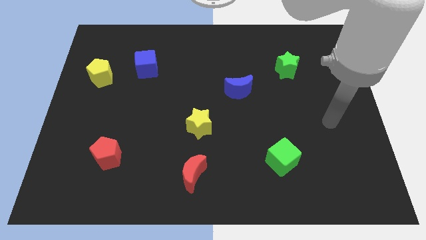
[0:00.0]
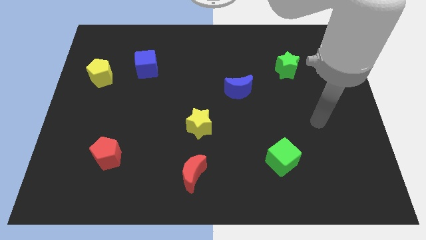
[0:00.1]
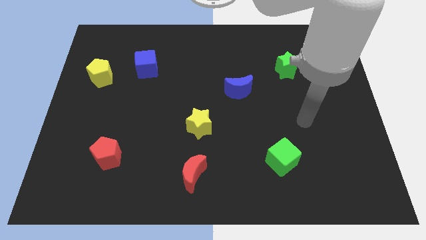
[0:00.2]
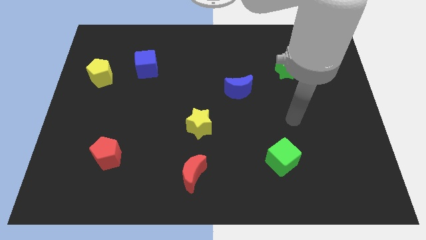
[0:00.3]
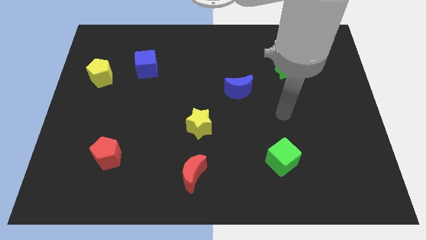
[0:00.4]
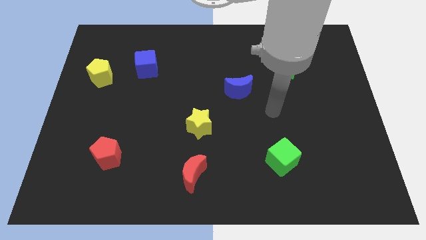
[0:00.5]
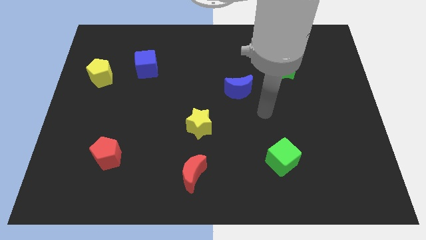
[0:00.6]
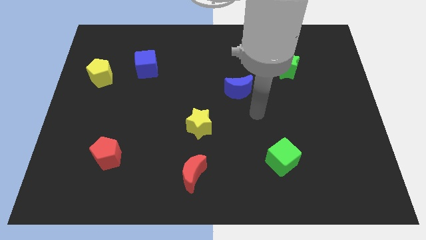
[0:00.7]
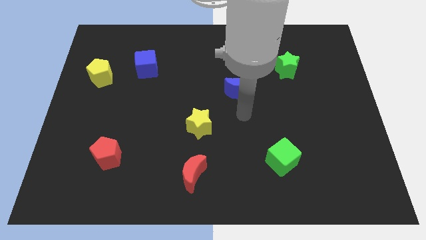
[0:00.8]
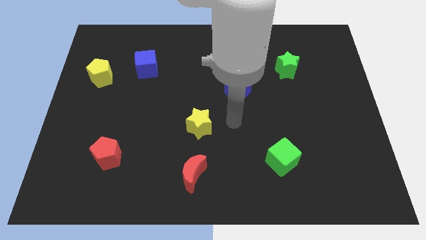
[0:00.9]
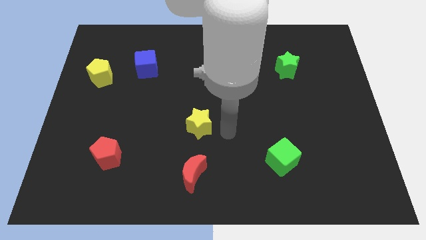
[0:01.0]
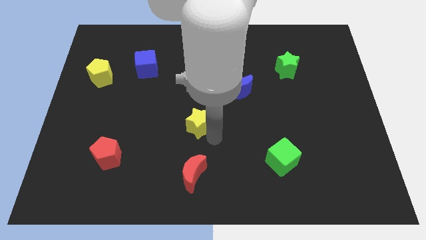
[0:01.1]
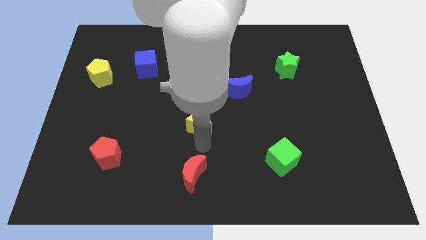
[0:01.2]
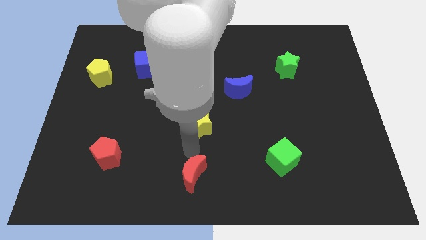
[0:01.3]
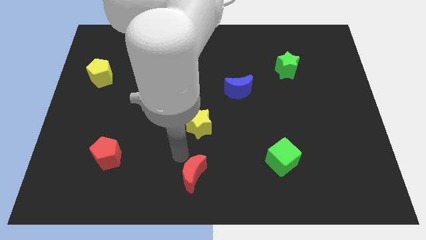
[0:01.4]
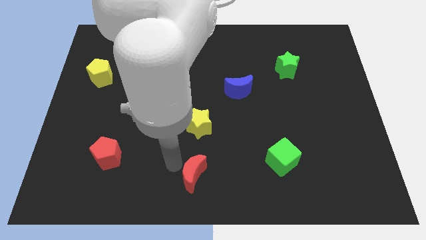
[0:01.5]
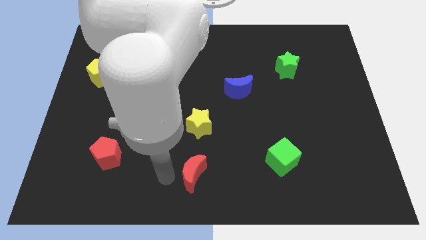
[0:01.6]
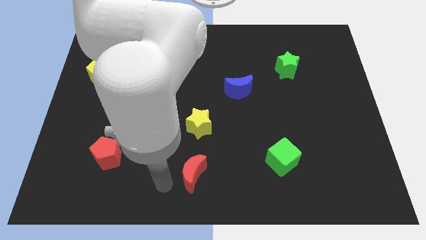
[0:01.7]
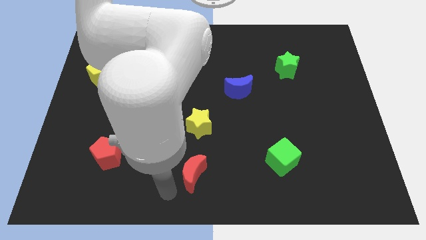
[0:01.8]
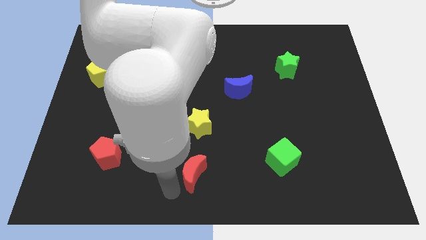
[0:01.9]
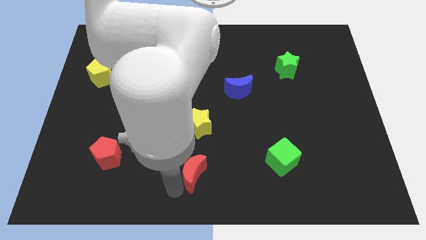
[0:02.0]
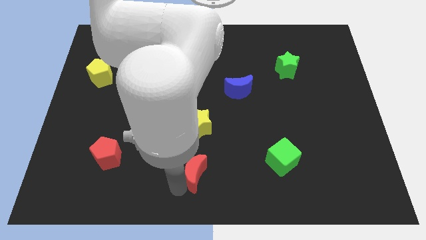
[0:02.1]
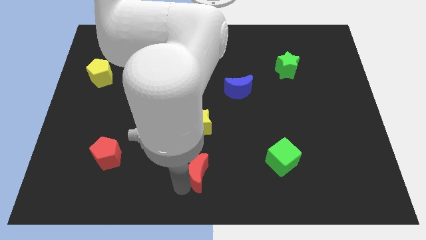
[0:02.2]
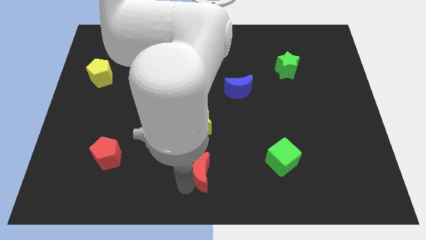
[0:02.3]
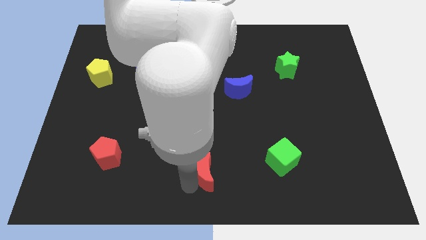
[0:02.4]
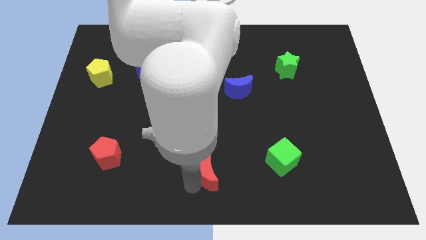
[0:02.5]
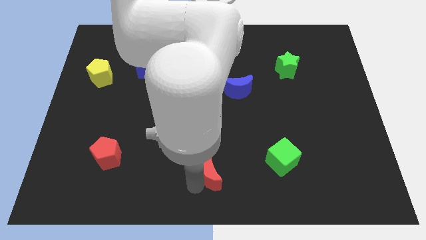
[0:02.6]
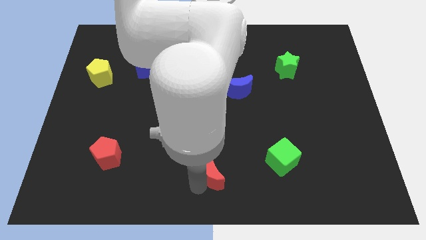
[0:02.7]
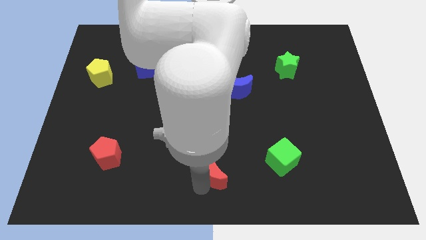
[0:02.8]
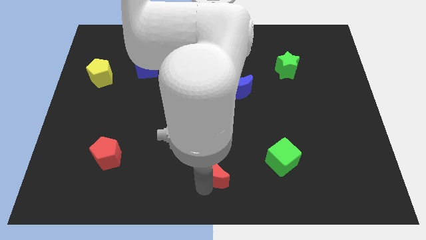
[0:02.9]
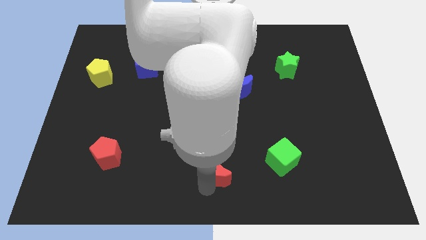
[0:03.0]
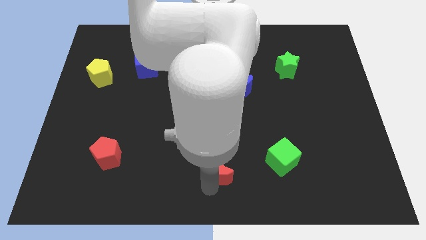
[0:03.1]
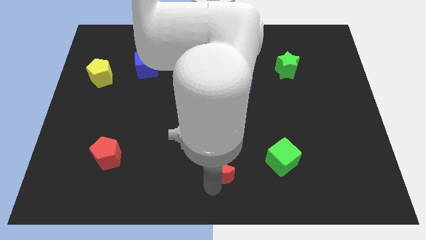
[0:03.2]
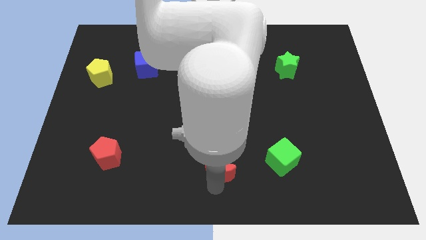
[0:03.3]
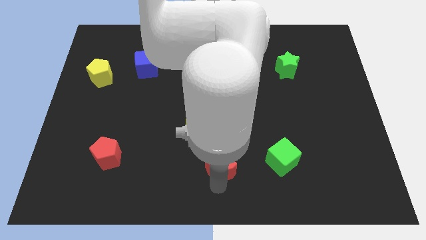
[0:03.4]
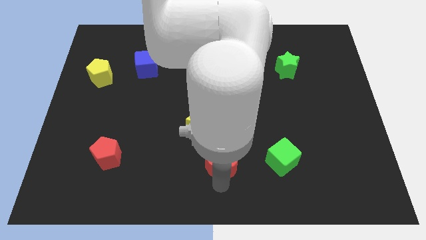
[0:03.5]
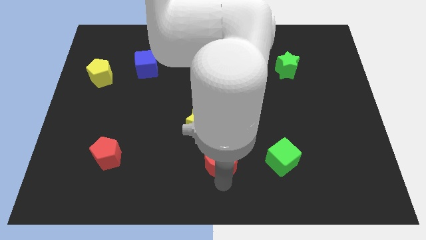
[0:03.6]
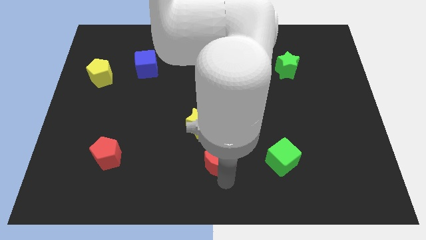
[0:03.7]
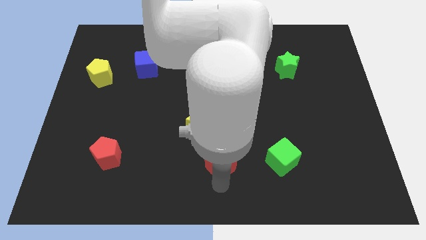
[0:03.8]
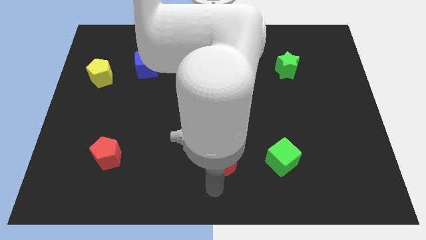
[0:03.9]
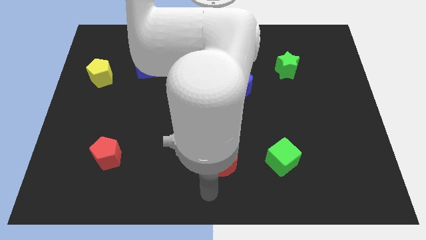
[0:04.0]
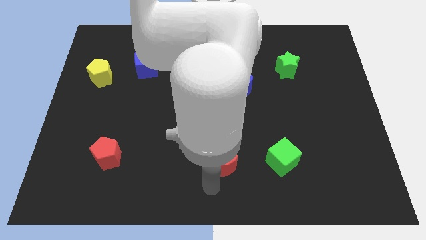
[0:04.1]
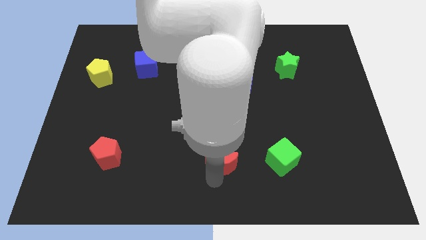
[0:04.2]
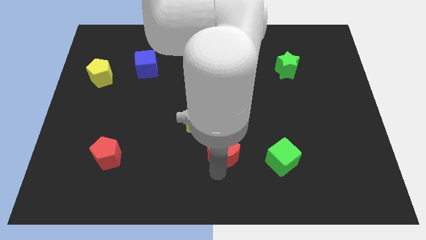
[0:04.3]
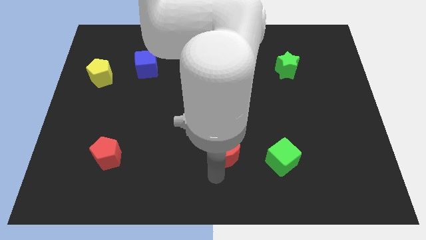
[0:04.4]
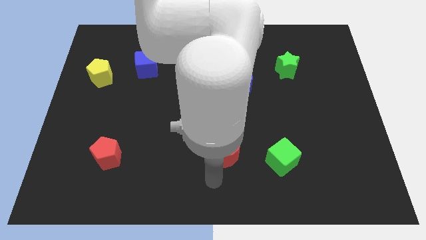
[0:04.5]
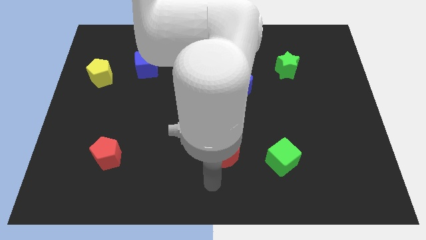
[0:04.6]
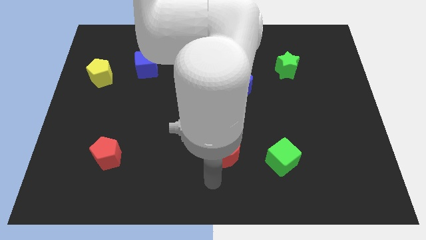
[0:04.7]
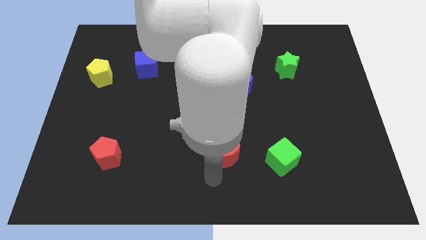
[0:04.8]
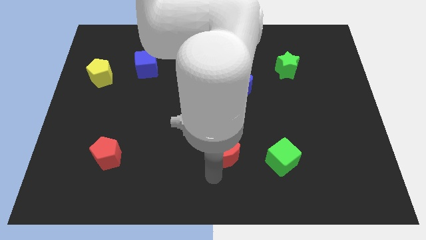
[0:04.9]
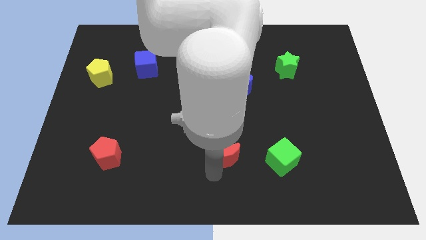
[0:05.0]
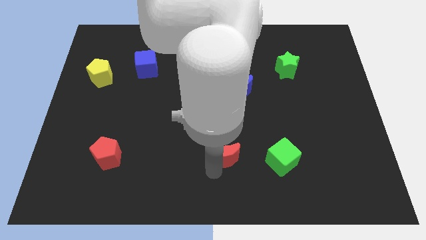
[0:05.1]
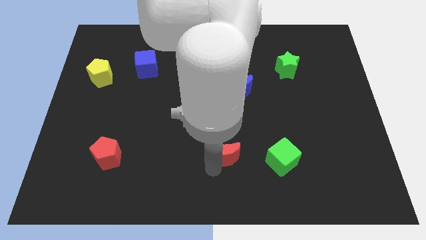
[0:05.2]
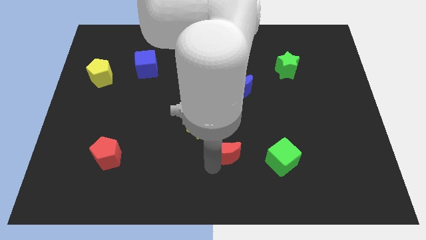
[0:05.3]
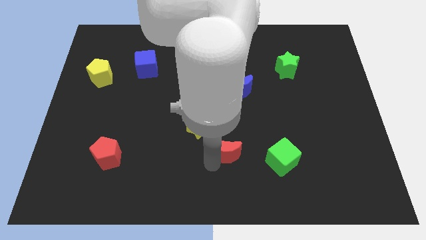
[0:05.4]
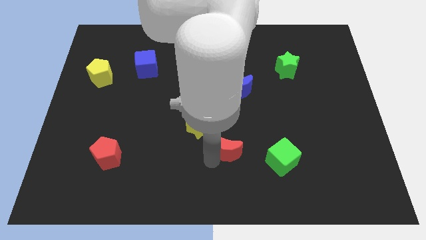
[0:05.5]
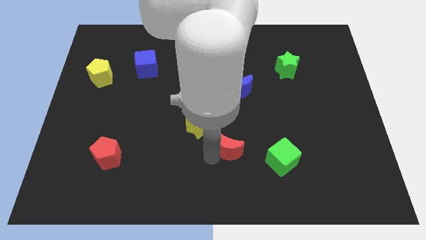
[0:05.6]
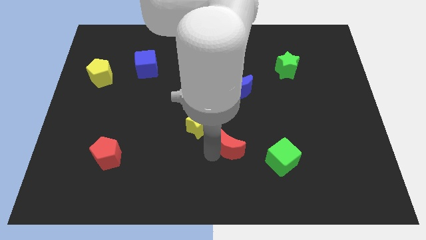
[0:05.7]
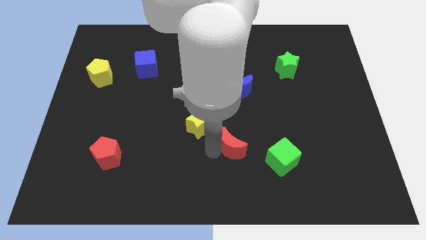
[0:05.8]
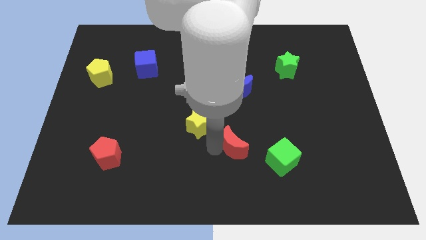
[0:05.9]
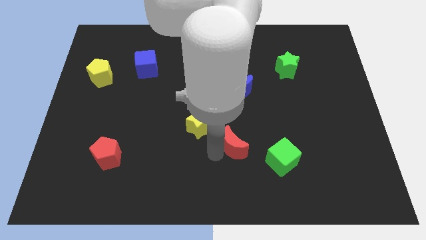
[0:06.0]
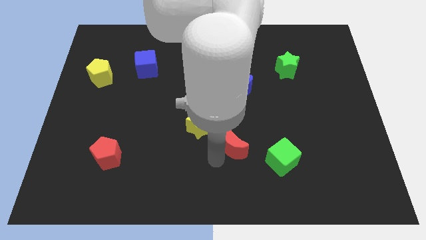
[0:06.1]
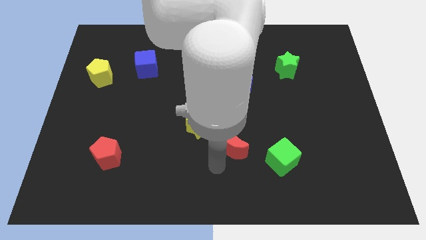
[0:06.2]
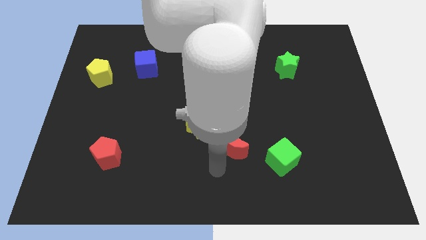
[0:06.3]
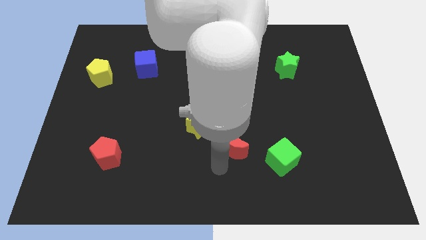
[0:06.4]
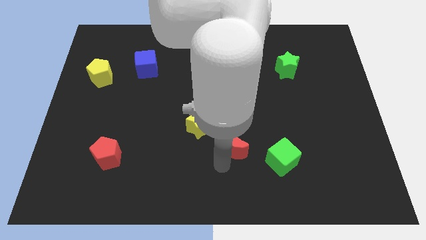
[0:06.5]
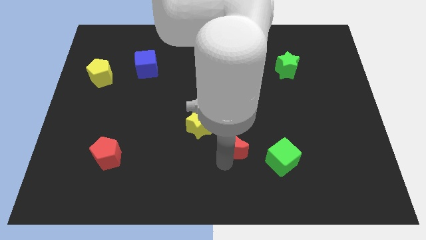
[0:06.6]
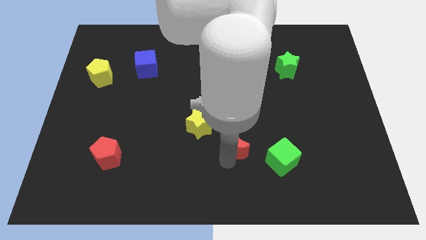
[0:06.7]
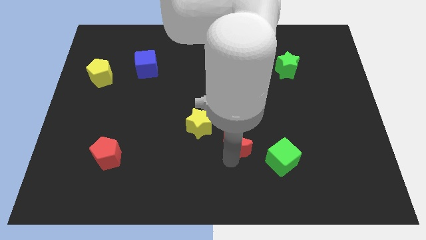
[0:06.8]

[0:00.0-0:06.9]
move the red moon to the right of the yellow star

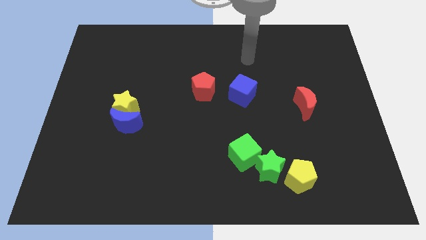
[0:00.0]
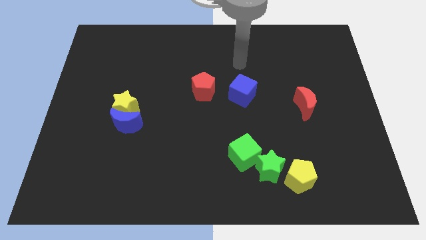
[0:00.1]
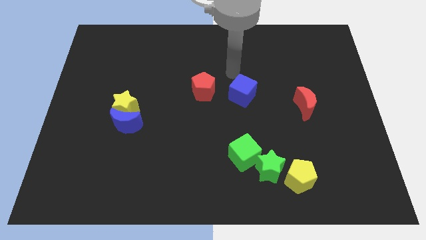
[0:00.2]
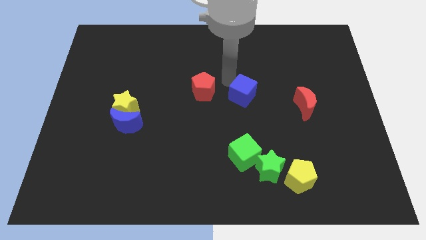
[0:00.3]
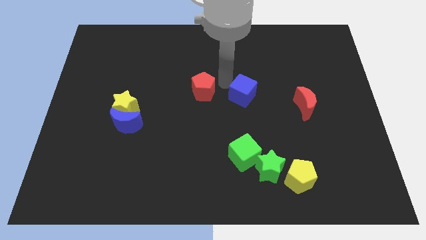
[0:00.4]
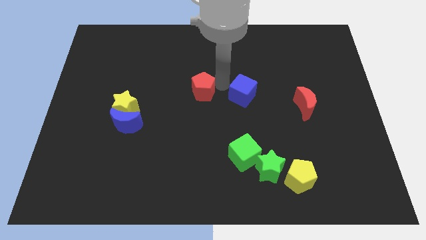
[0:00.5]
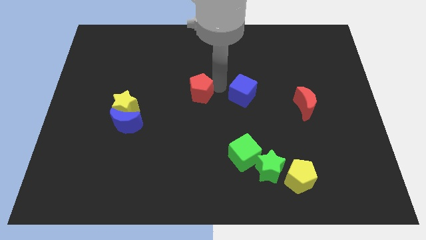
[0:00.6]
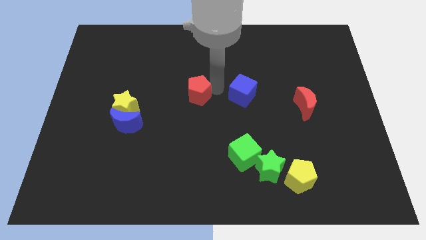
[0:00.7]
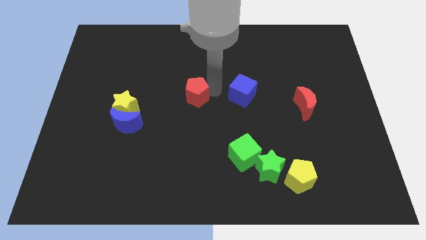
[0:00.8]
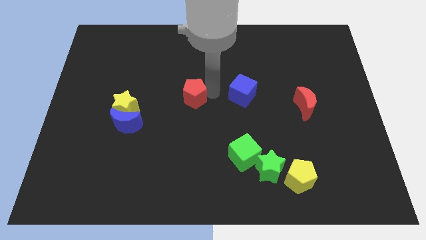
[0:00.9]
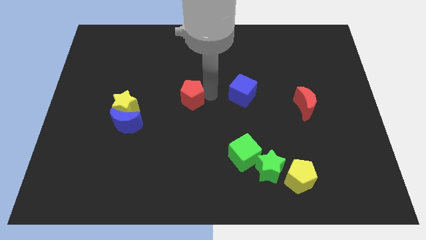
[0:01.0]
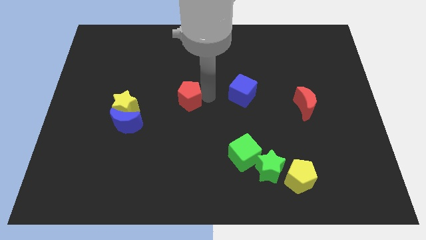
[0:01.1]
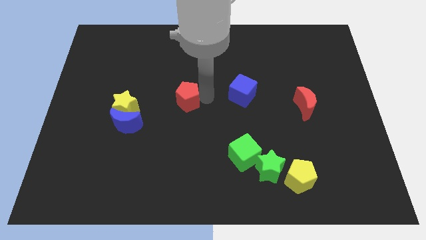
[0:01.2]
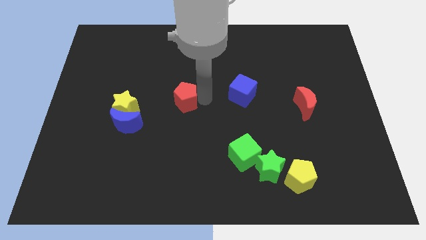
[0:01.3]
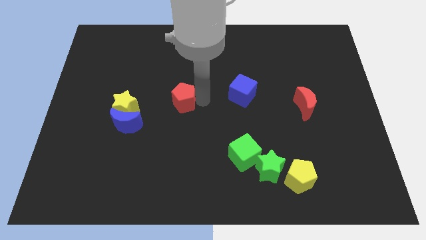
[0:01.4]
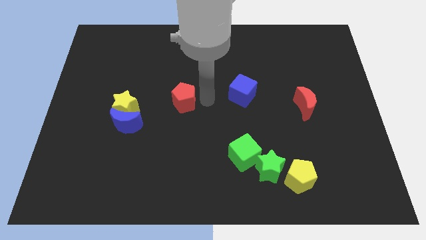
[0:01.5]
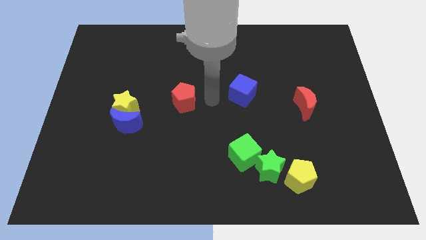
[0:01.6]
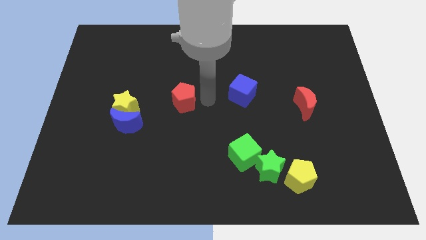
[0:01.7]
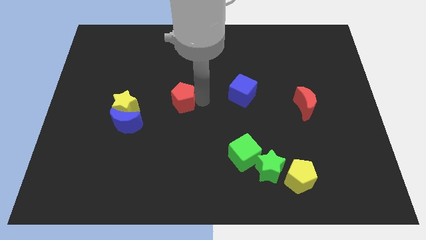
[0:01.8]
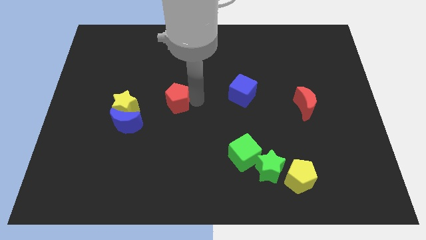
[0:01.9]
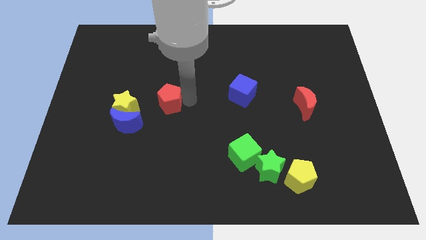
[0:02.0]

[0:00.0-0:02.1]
put the red pentagon diagonally up and to the right of the blue moon
